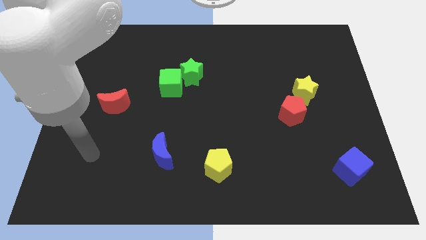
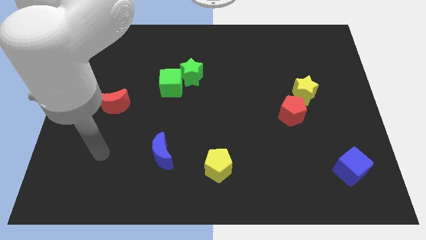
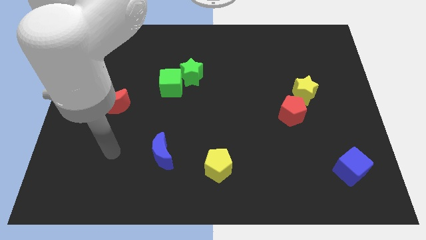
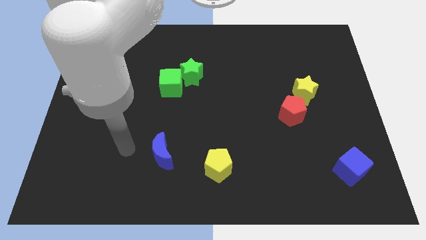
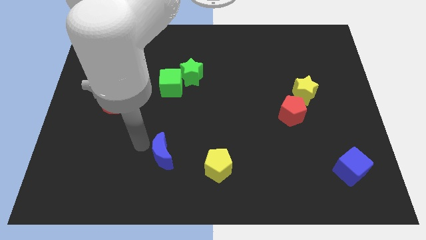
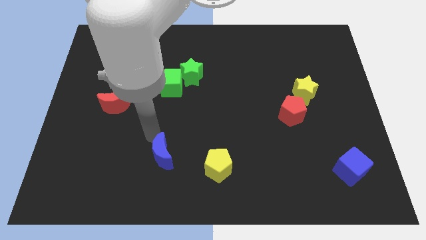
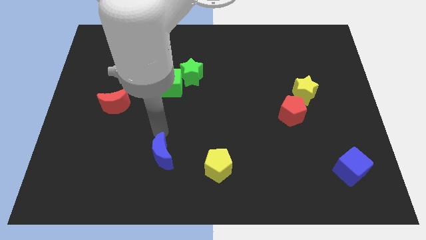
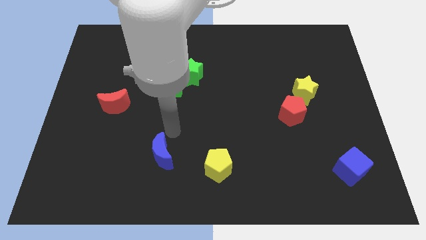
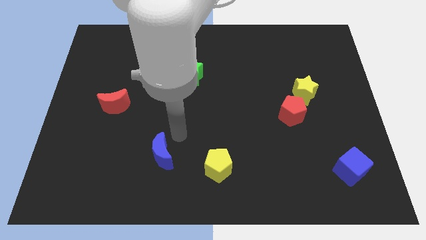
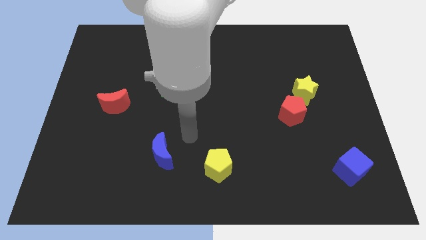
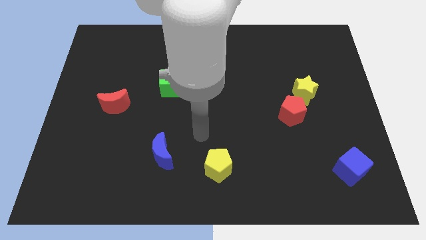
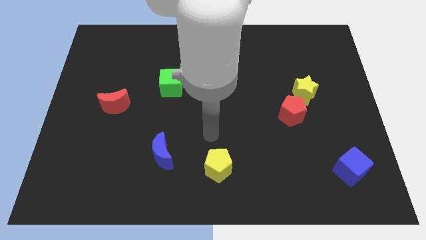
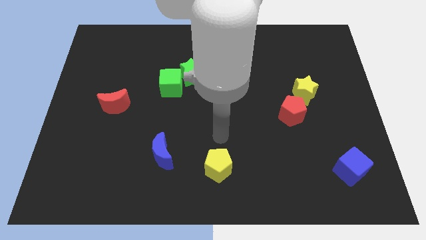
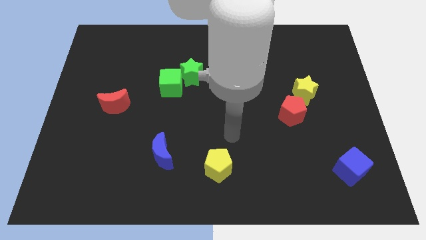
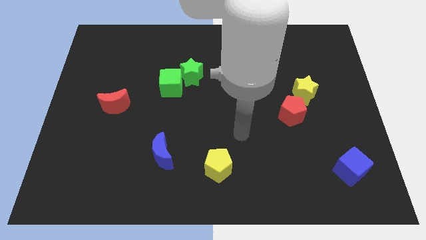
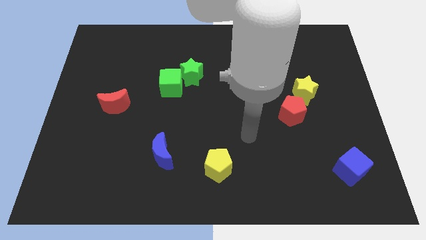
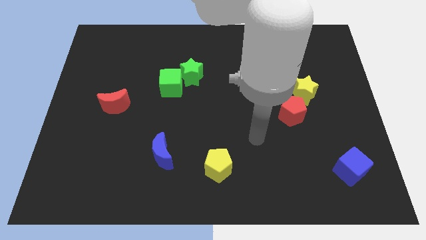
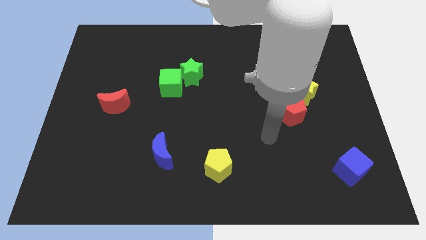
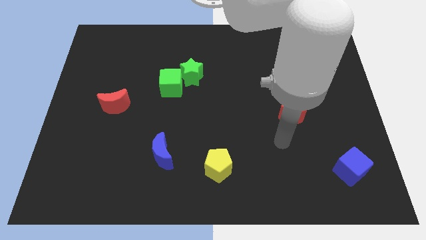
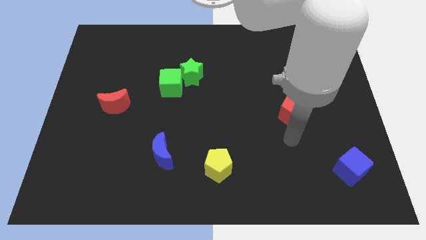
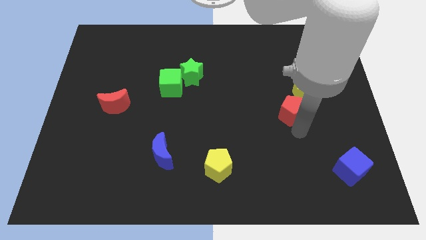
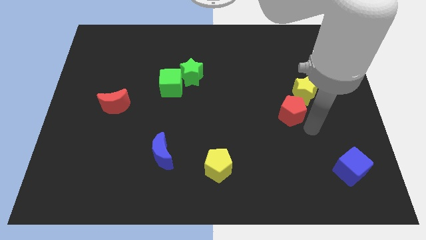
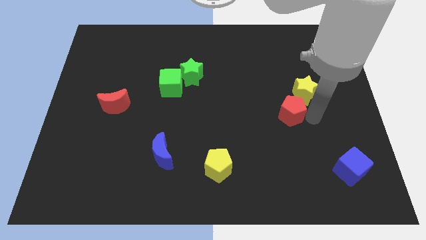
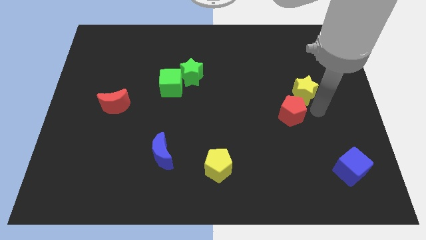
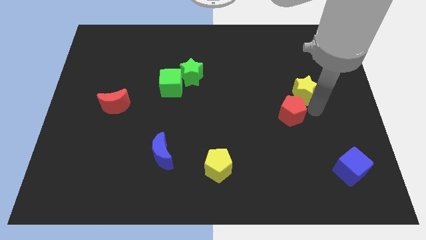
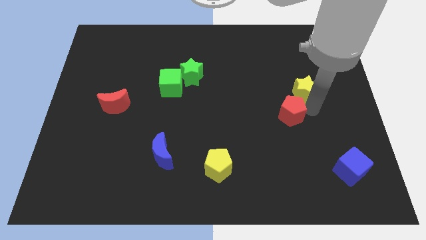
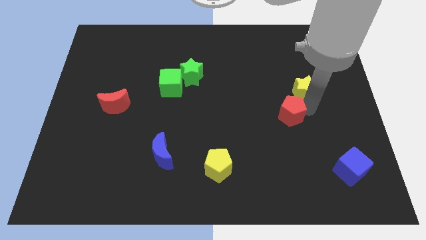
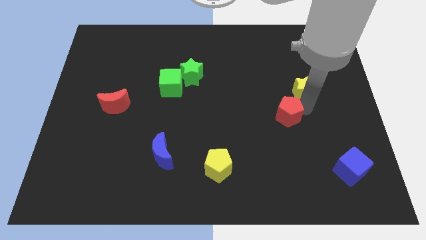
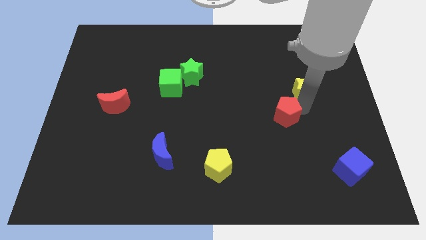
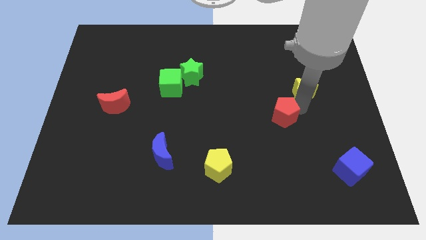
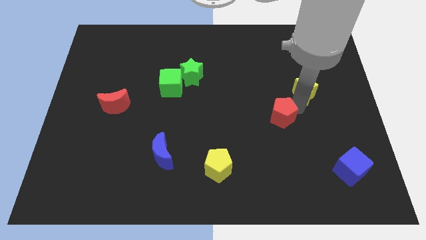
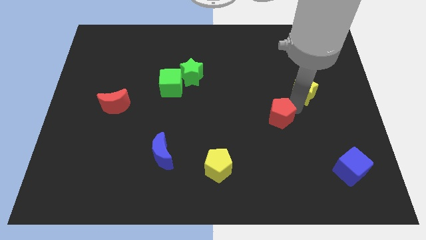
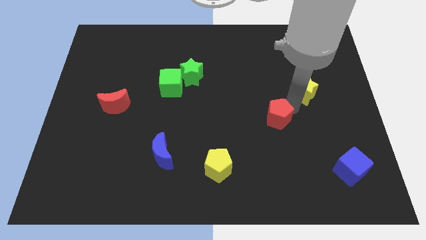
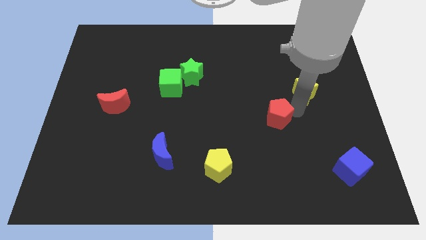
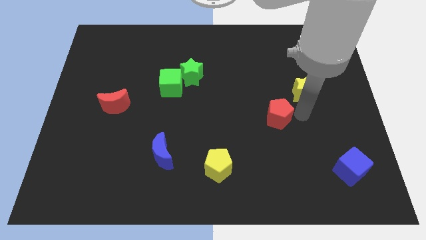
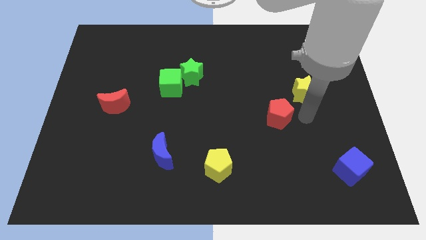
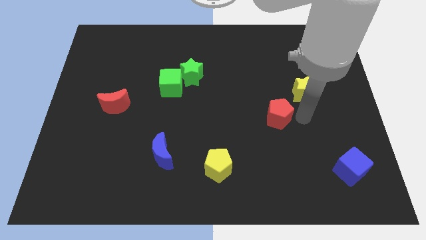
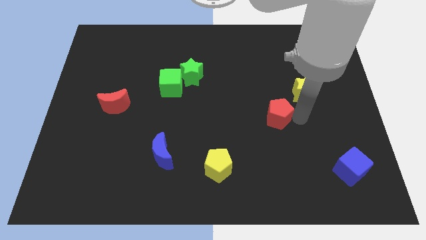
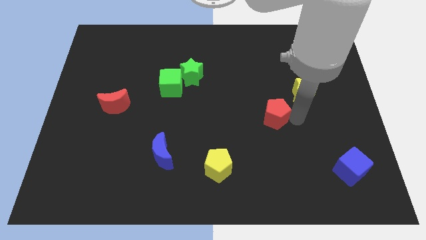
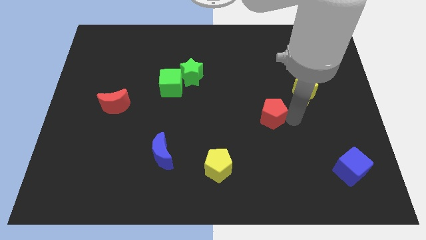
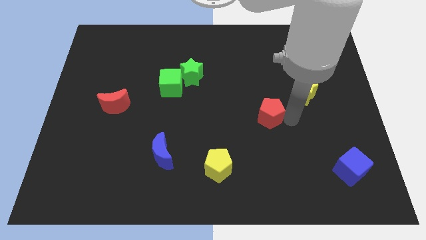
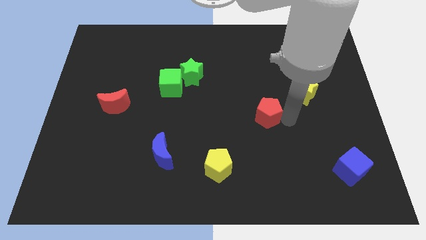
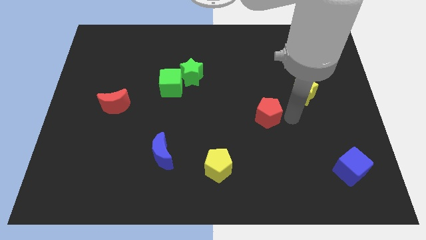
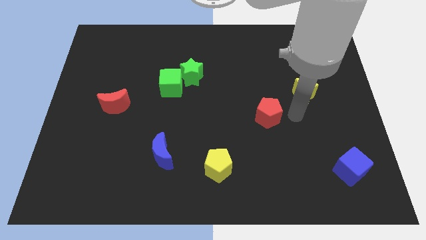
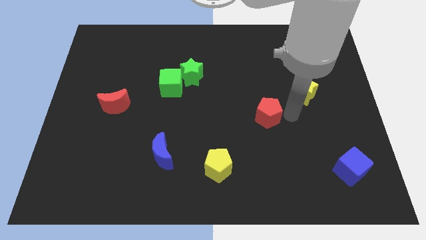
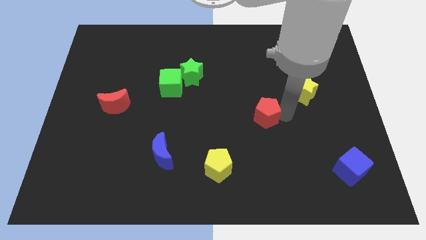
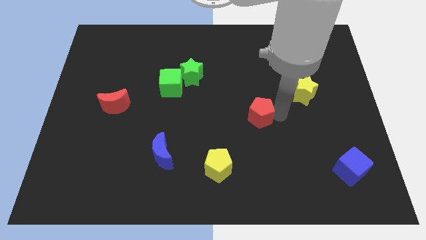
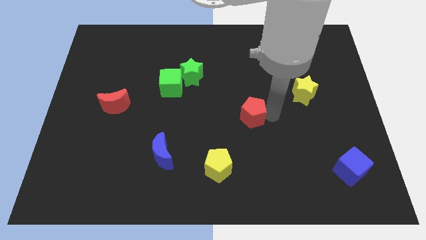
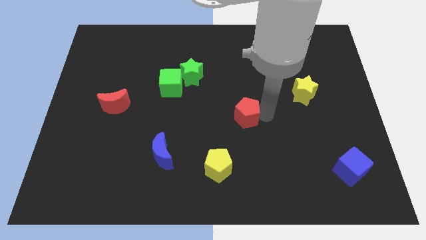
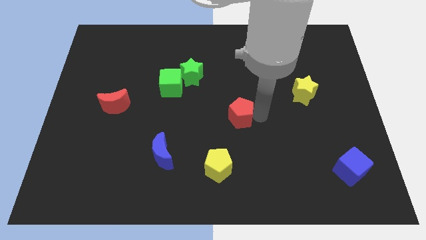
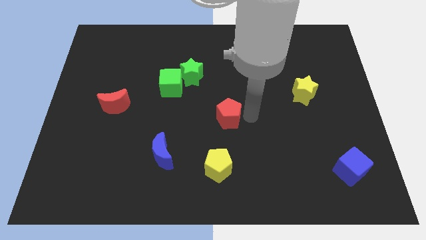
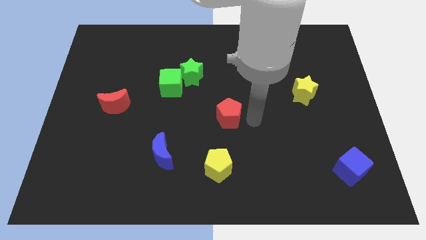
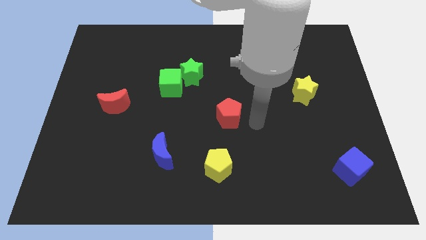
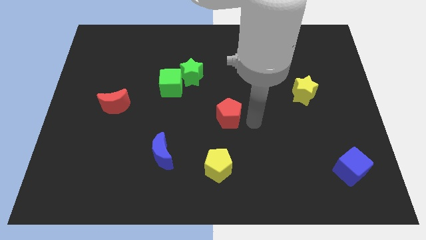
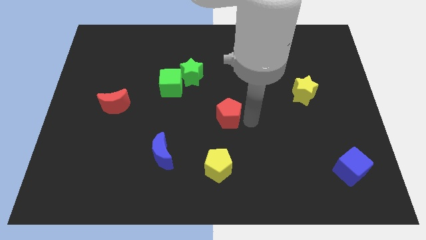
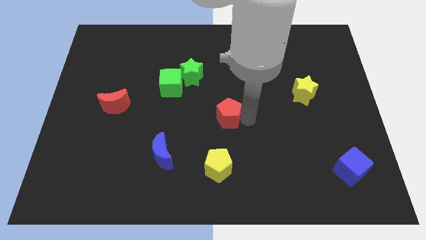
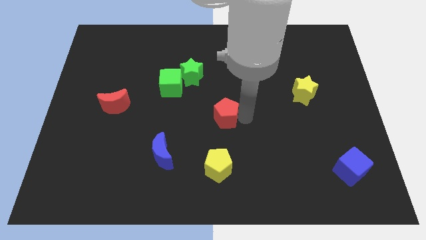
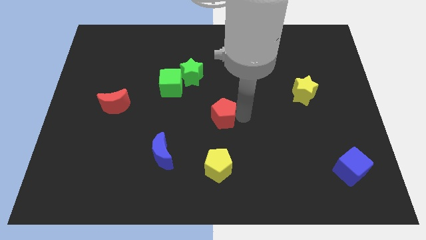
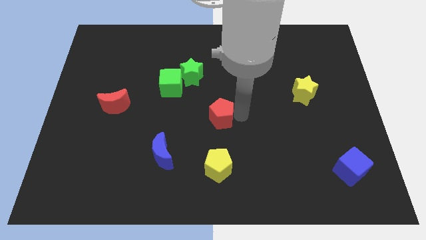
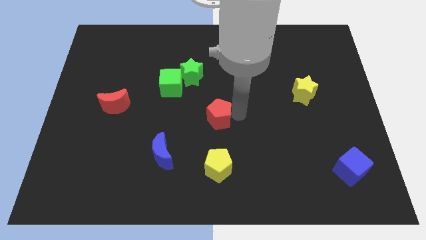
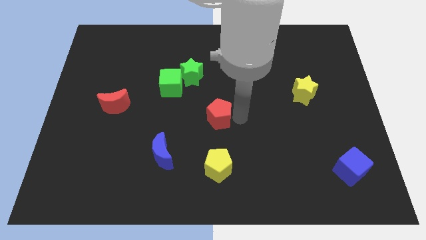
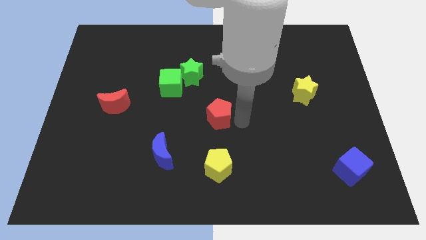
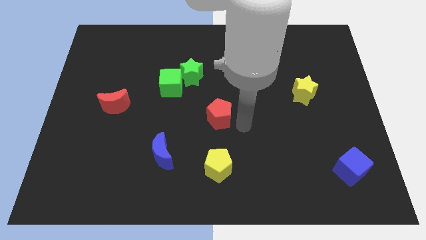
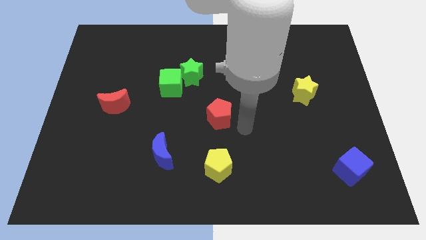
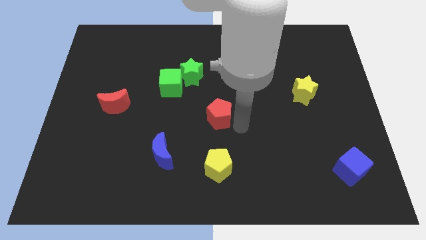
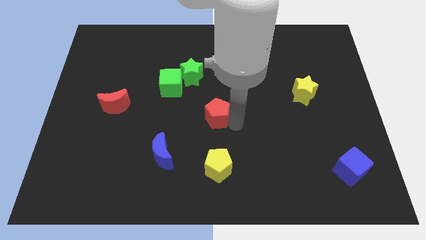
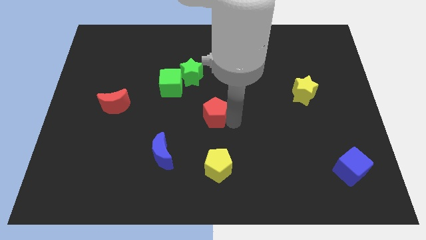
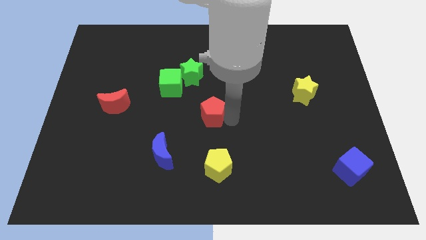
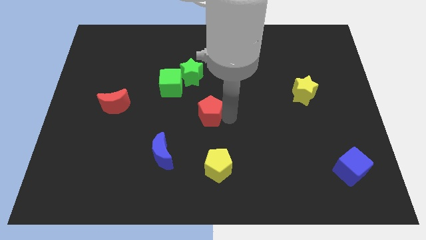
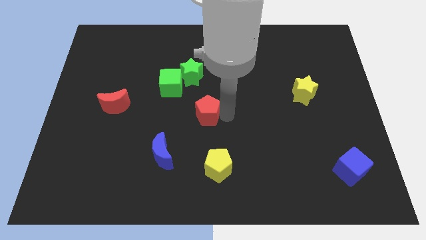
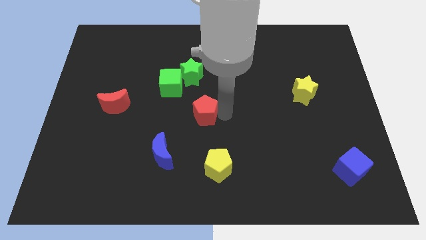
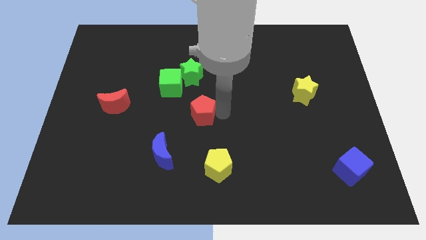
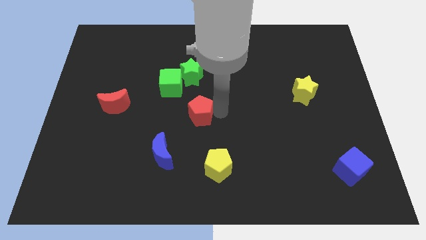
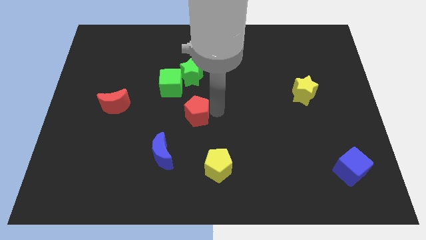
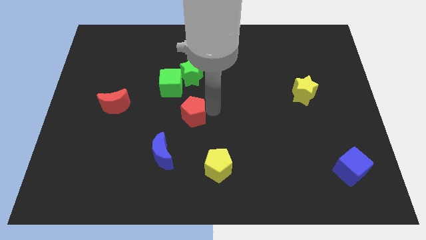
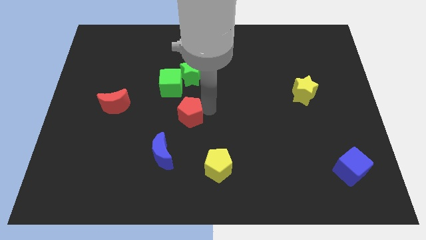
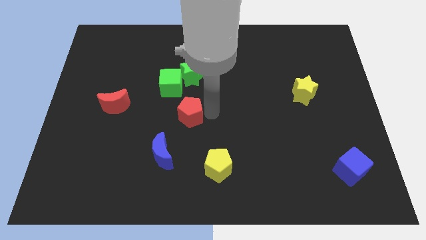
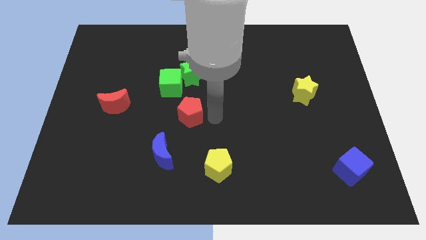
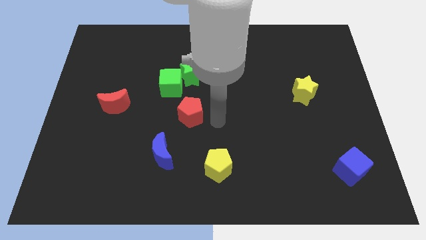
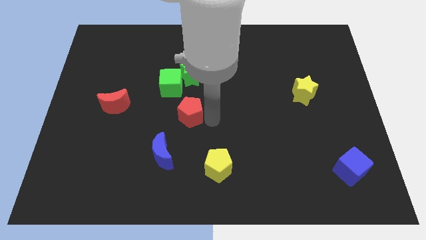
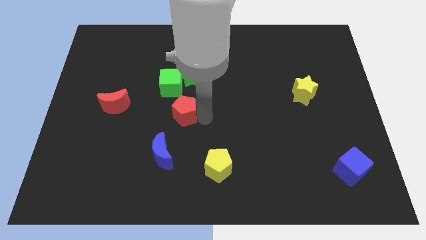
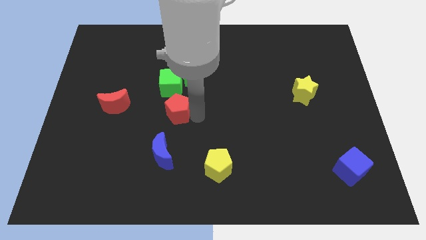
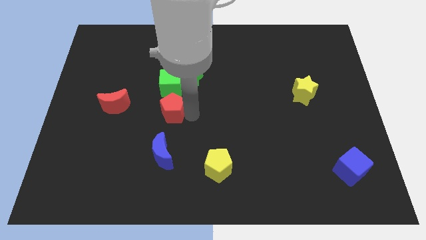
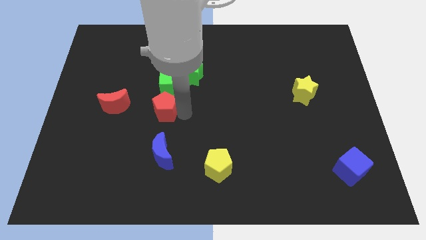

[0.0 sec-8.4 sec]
push the red pentagon diagonally down and to the left of the green cube
